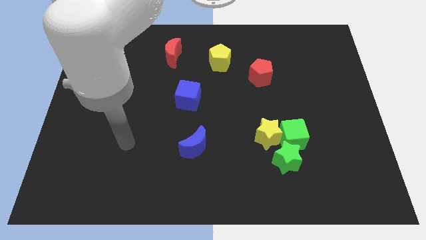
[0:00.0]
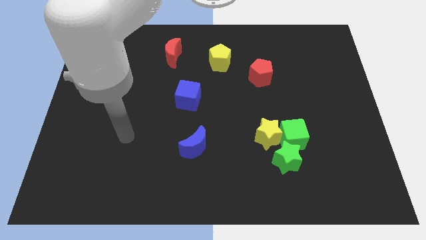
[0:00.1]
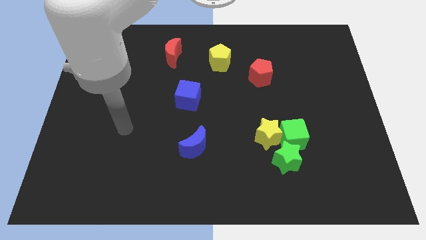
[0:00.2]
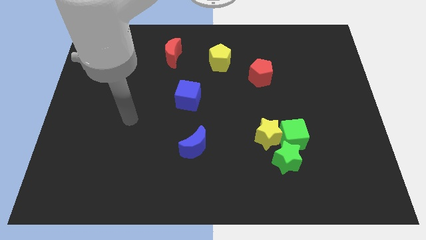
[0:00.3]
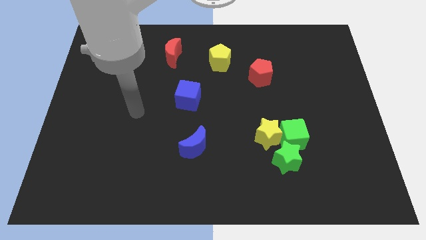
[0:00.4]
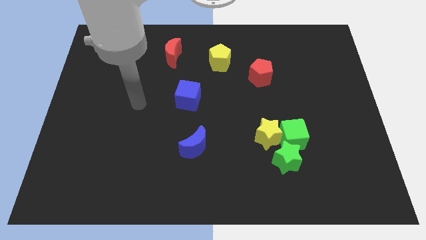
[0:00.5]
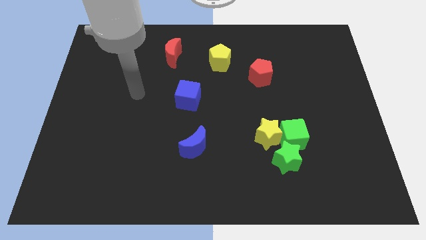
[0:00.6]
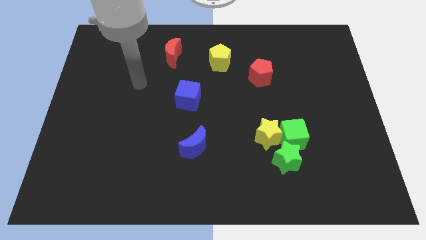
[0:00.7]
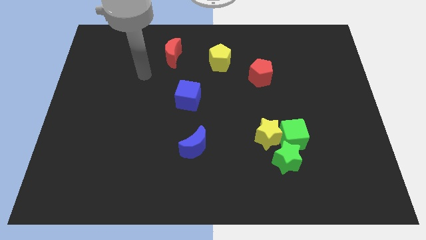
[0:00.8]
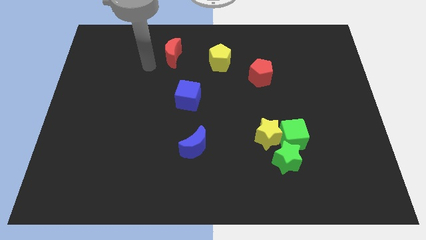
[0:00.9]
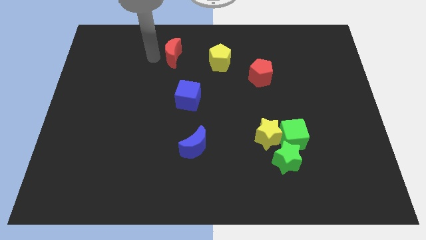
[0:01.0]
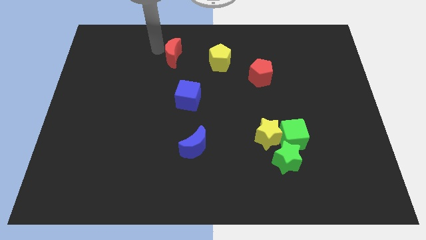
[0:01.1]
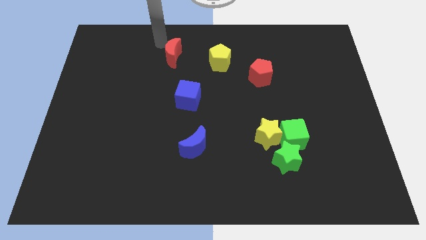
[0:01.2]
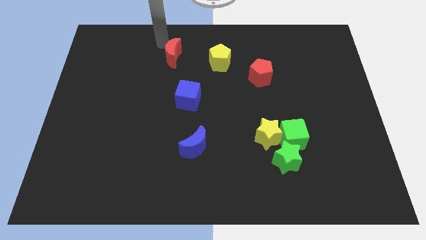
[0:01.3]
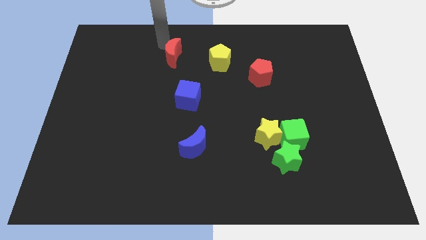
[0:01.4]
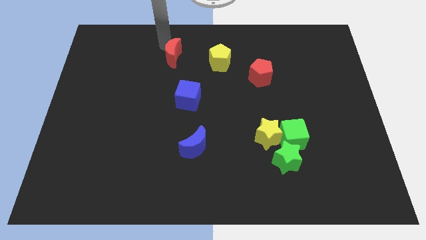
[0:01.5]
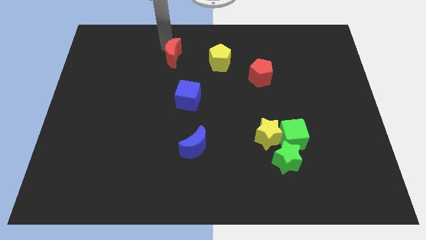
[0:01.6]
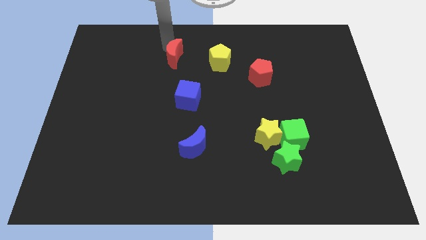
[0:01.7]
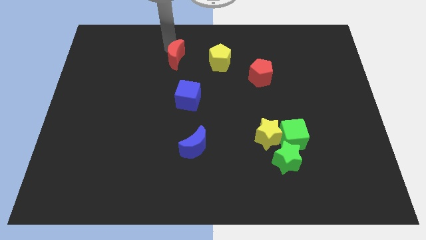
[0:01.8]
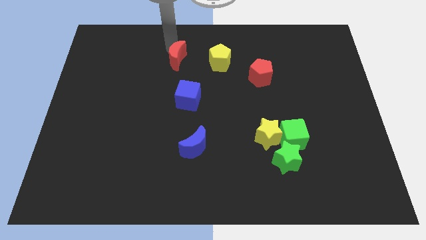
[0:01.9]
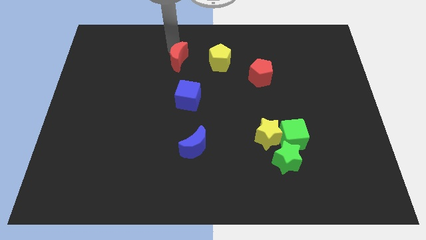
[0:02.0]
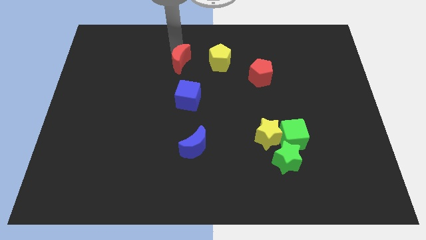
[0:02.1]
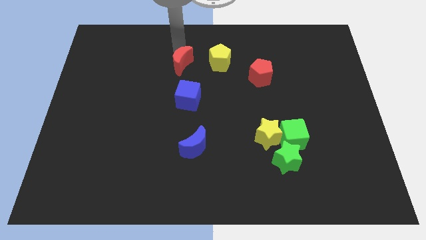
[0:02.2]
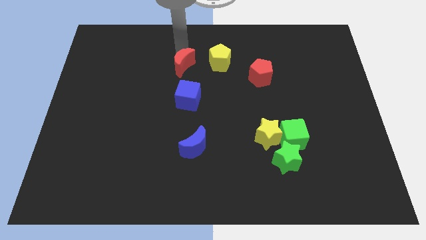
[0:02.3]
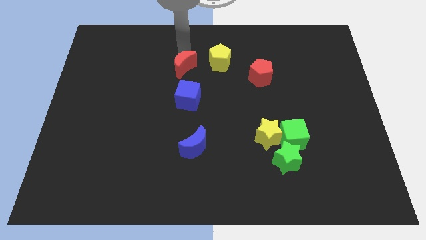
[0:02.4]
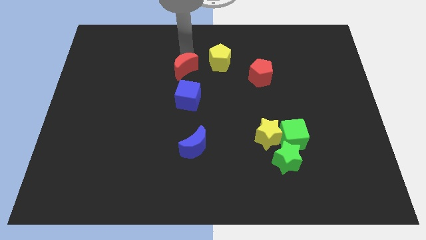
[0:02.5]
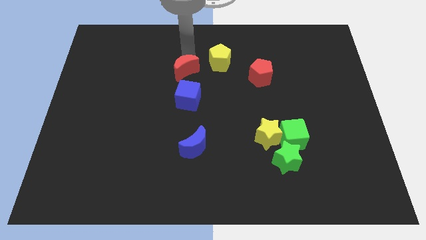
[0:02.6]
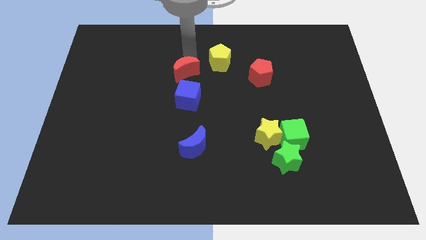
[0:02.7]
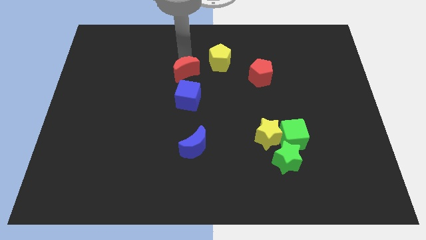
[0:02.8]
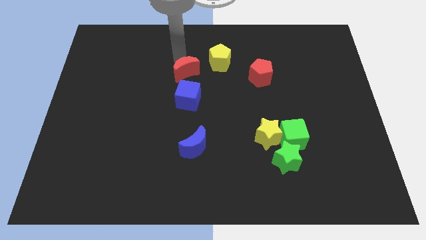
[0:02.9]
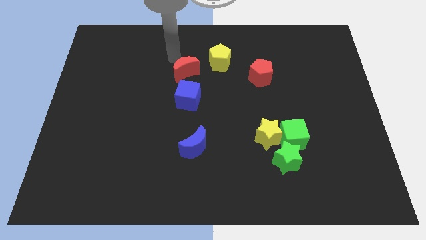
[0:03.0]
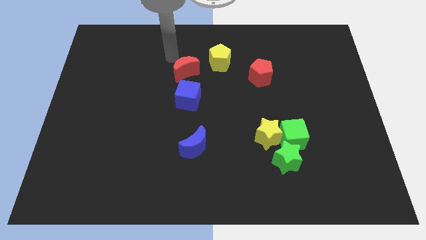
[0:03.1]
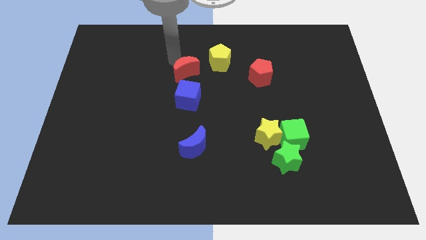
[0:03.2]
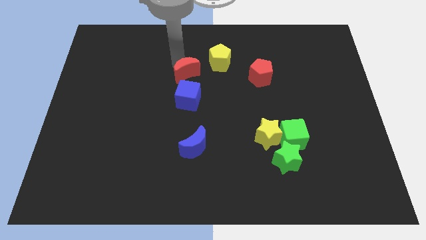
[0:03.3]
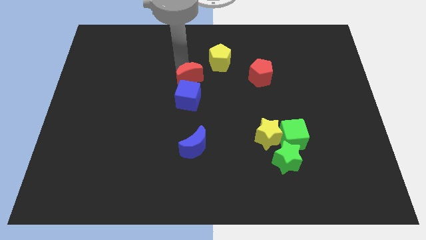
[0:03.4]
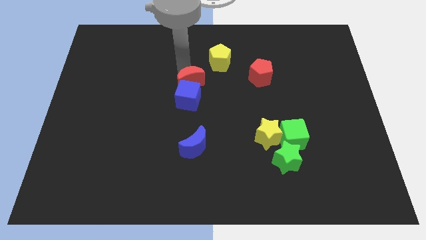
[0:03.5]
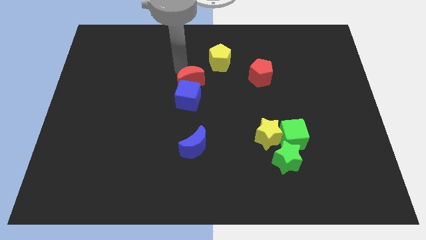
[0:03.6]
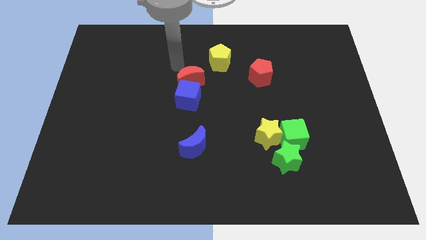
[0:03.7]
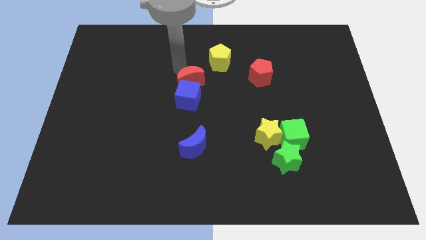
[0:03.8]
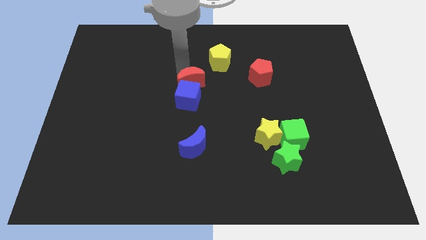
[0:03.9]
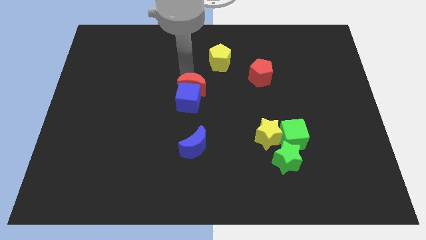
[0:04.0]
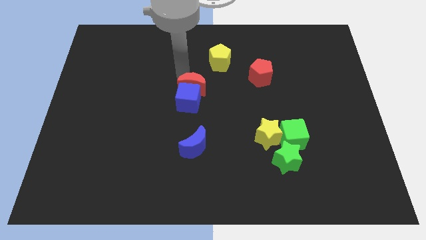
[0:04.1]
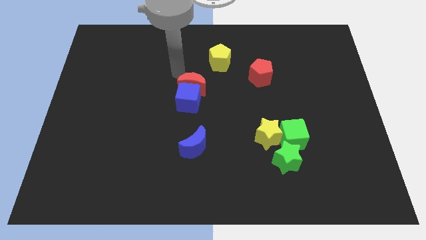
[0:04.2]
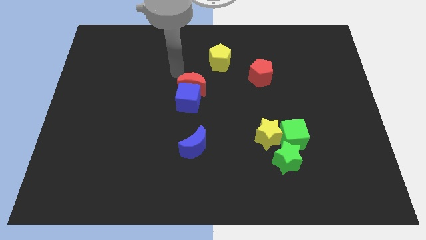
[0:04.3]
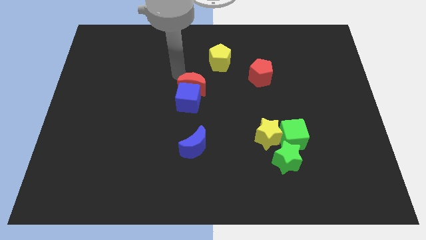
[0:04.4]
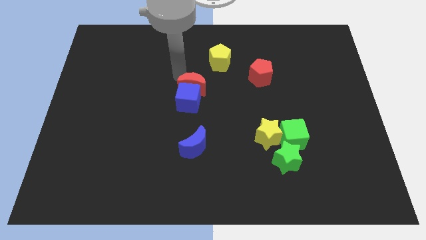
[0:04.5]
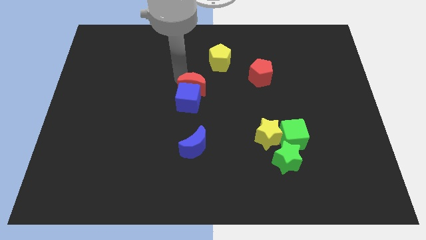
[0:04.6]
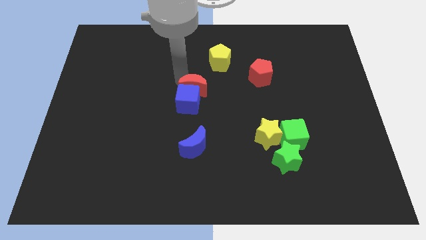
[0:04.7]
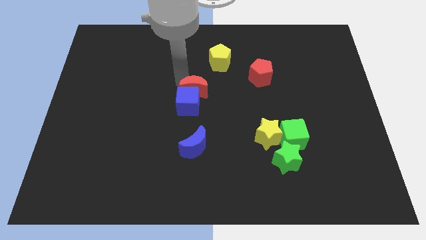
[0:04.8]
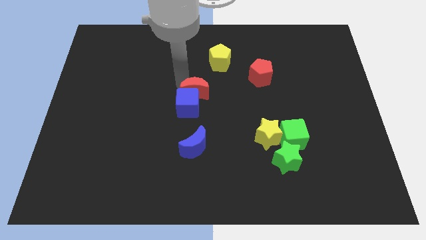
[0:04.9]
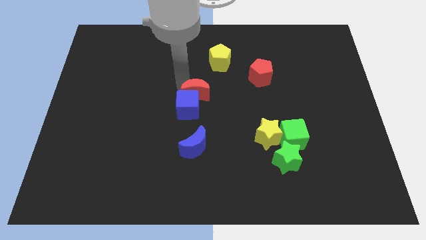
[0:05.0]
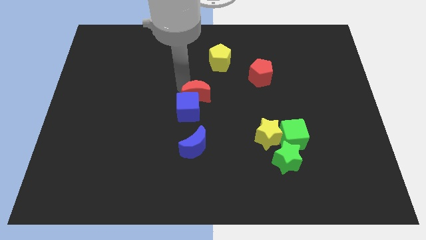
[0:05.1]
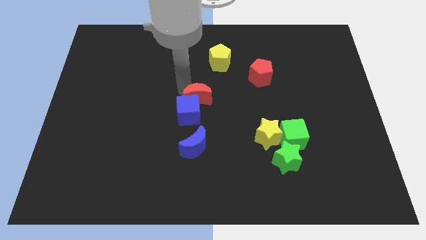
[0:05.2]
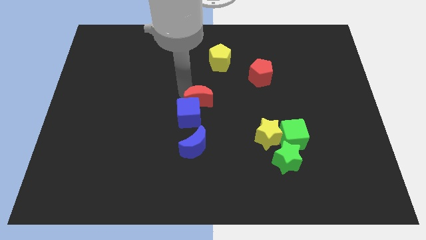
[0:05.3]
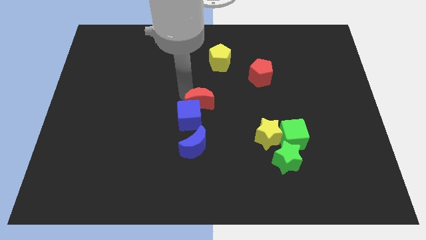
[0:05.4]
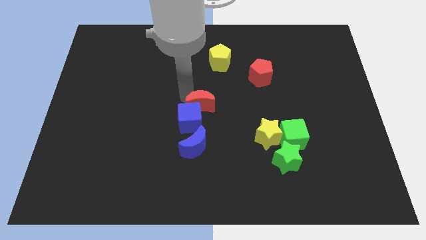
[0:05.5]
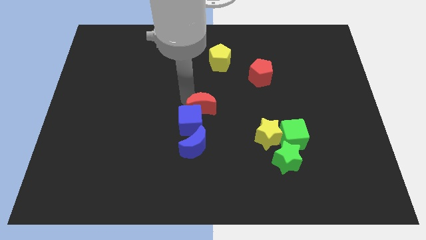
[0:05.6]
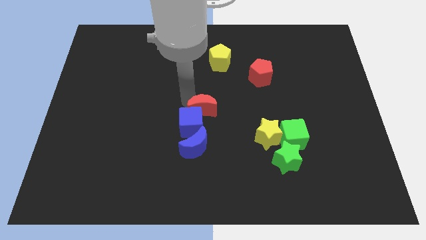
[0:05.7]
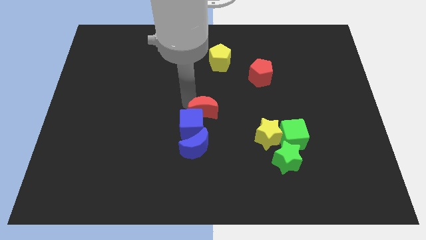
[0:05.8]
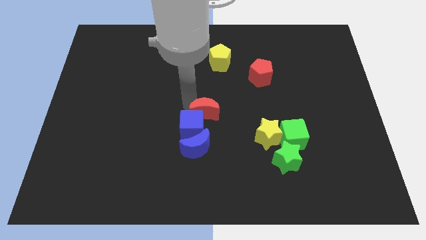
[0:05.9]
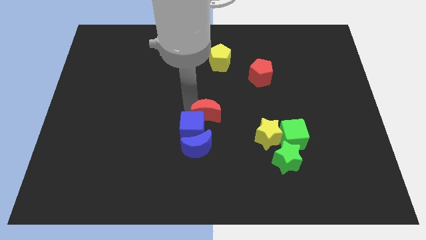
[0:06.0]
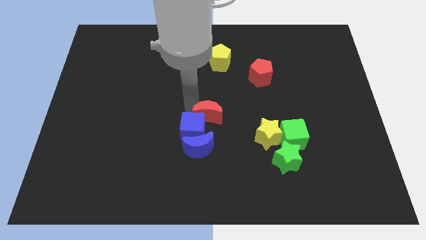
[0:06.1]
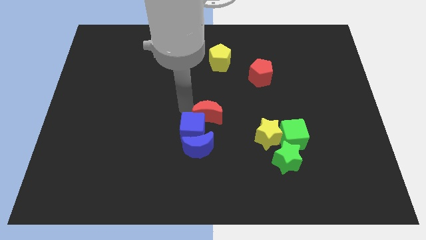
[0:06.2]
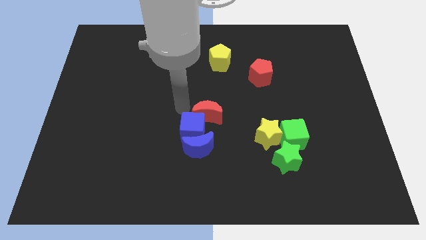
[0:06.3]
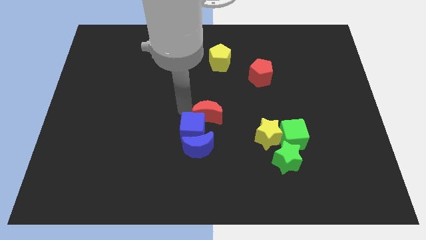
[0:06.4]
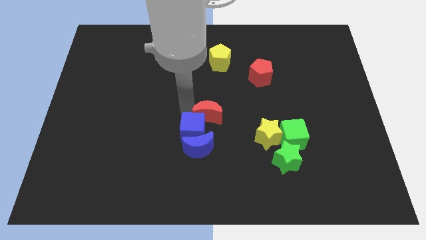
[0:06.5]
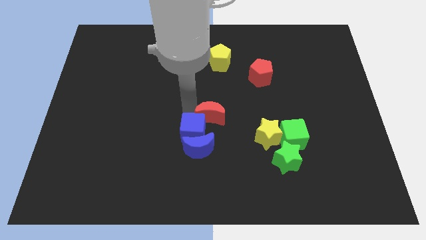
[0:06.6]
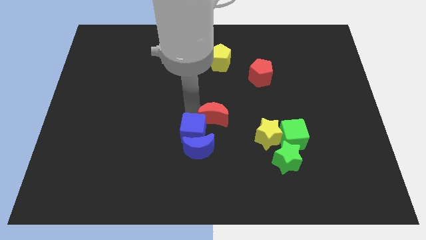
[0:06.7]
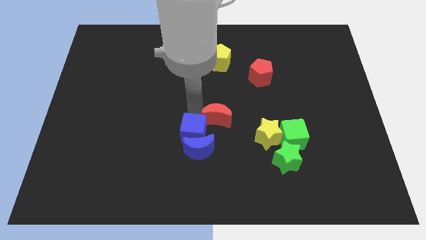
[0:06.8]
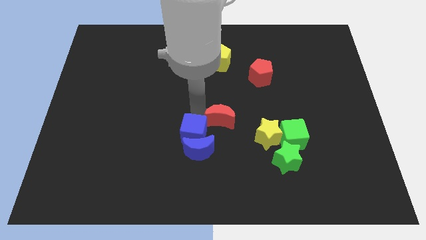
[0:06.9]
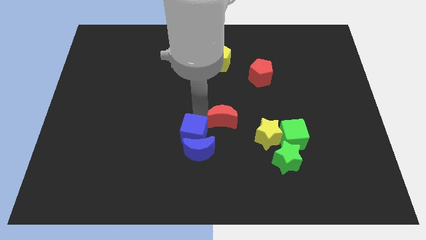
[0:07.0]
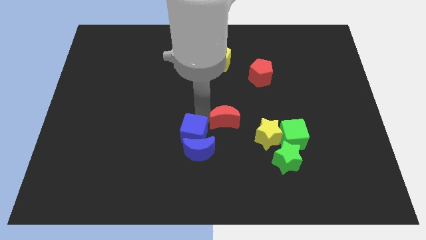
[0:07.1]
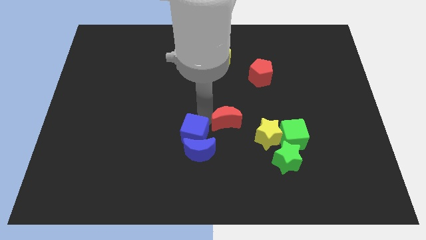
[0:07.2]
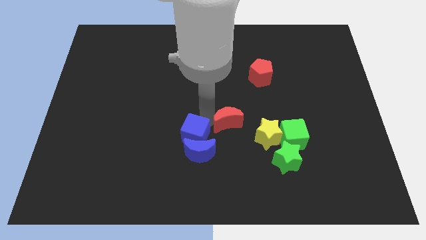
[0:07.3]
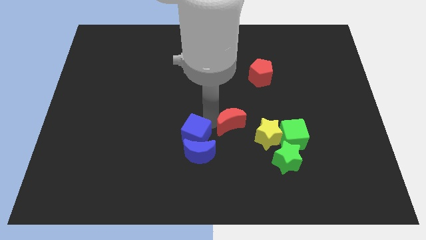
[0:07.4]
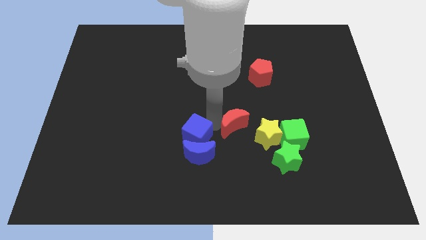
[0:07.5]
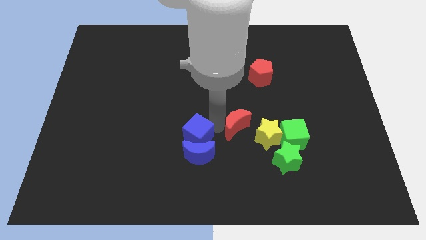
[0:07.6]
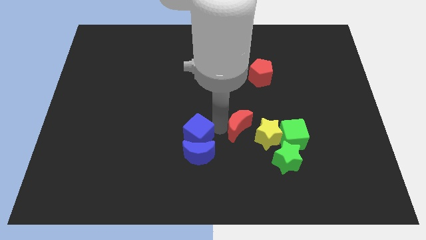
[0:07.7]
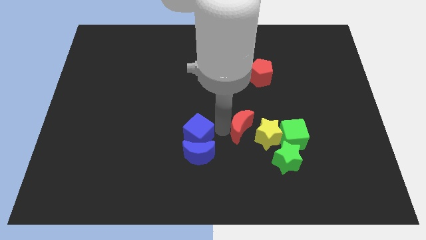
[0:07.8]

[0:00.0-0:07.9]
put the red moon to the top left of the green star
